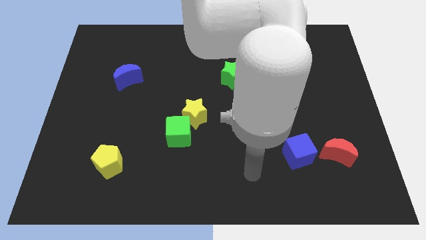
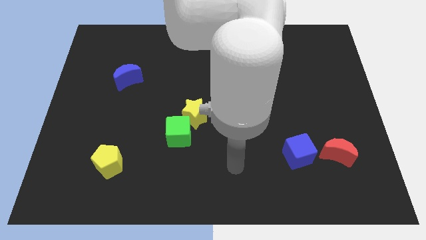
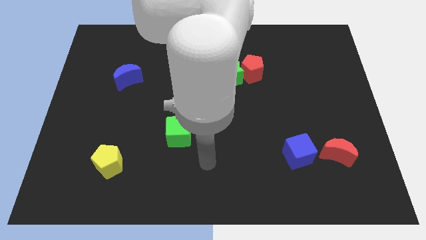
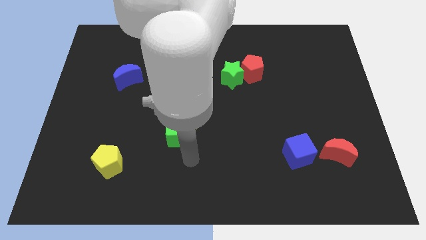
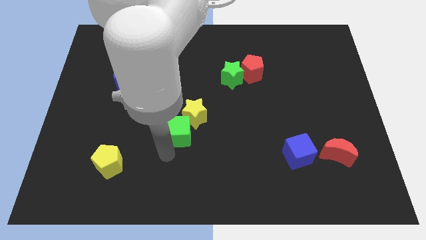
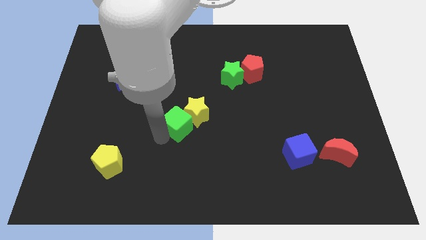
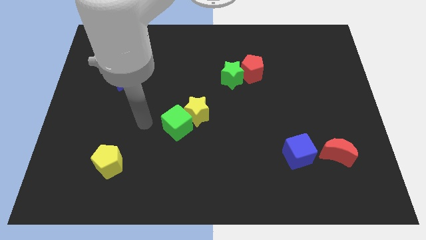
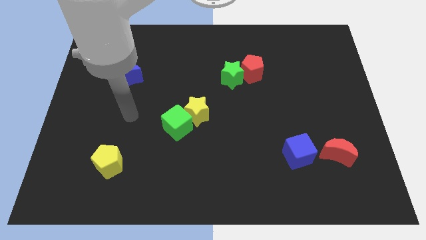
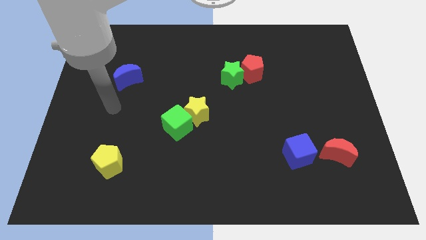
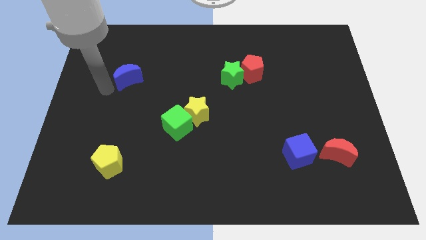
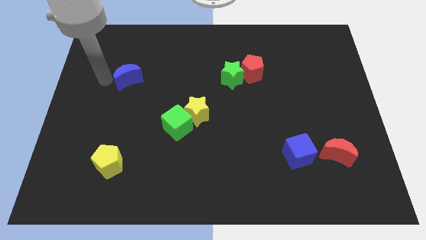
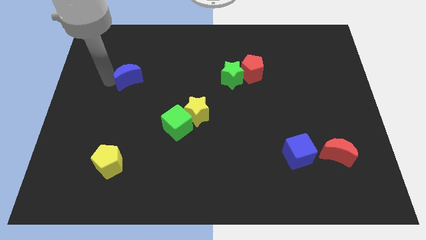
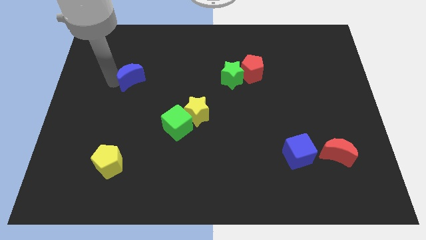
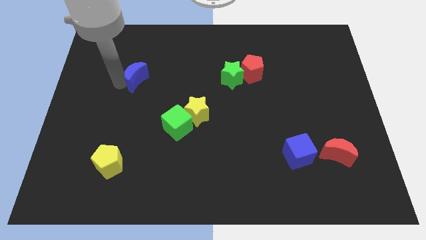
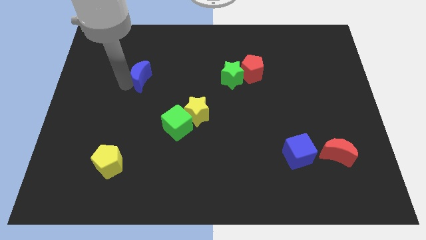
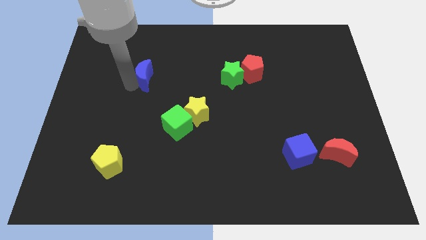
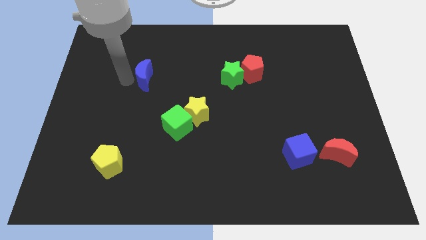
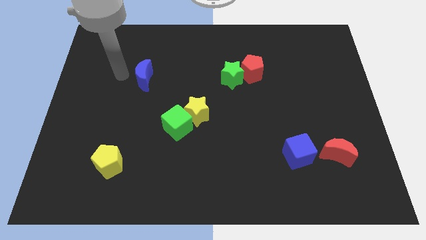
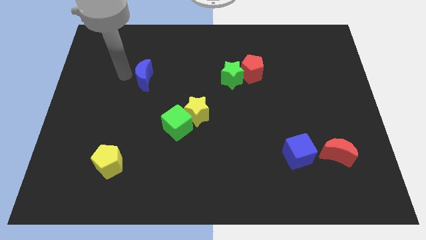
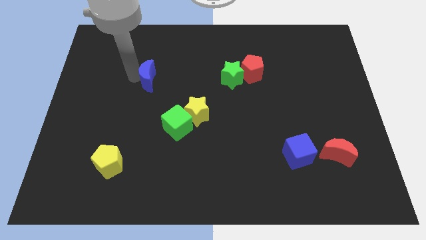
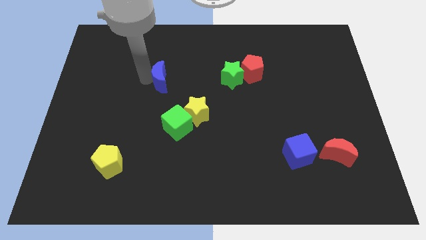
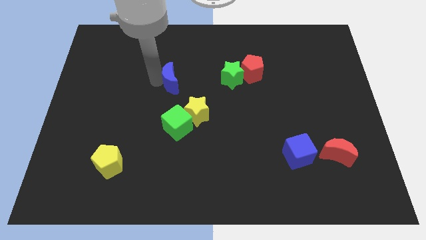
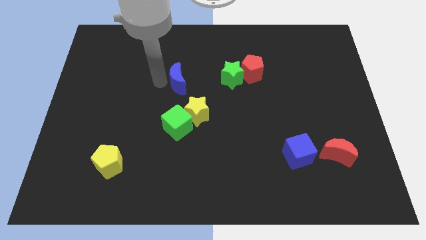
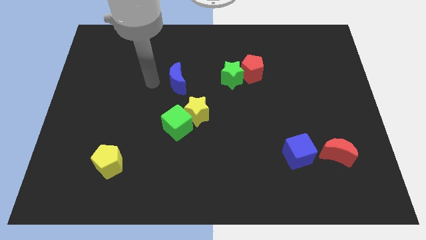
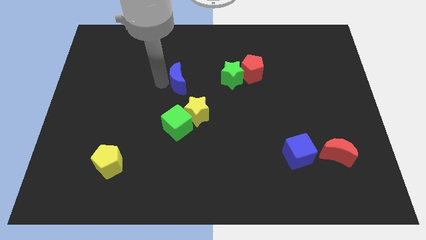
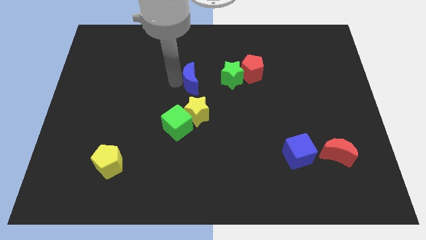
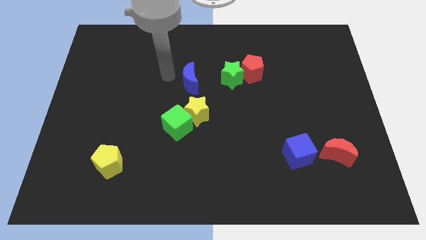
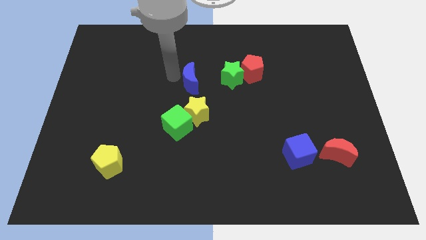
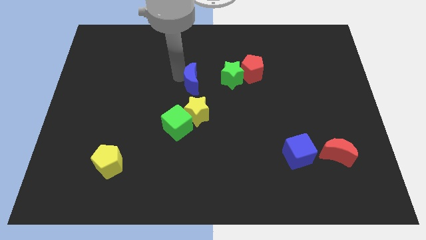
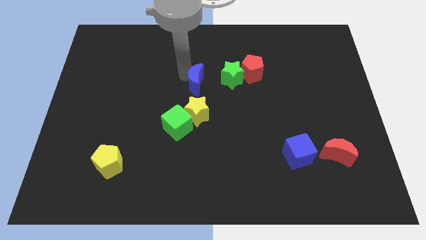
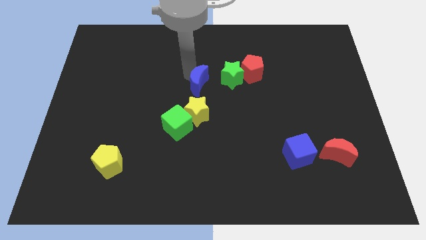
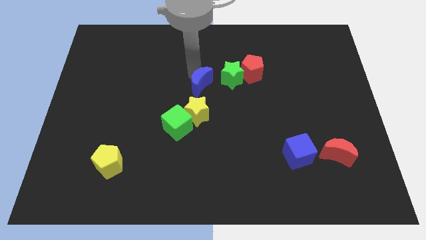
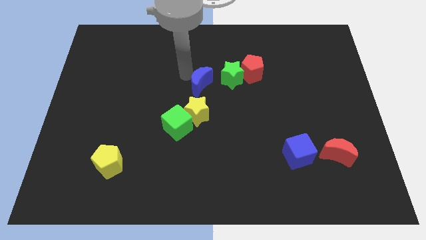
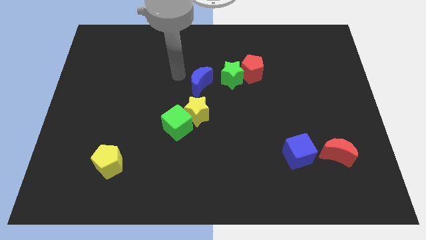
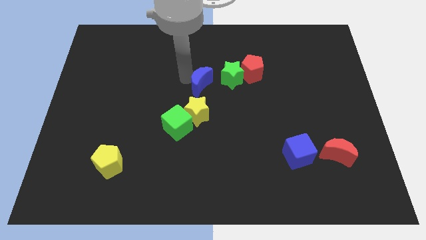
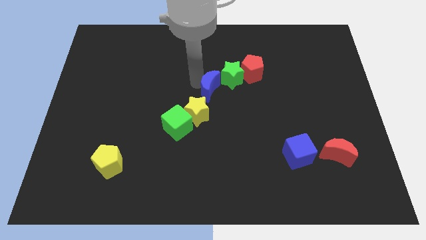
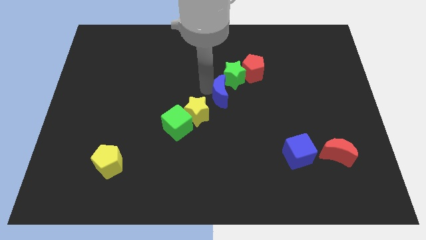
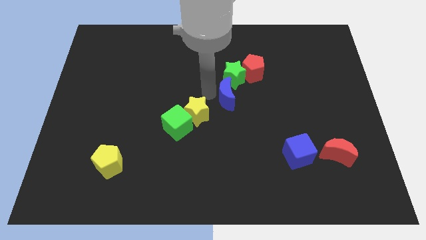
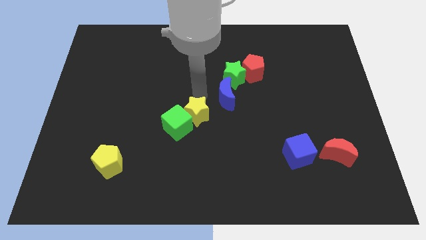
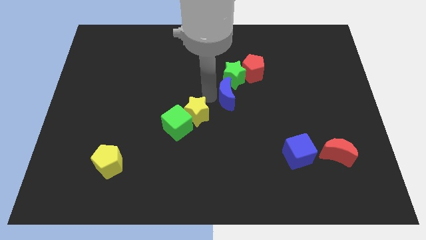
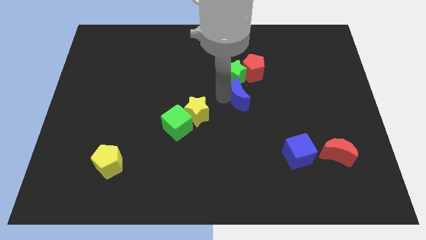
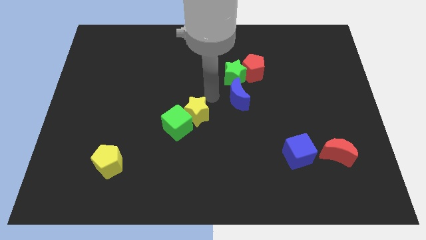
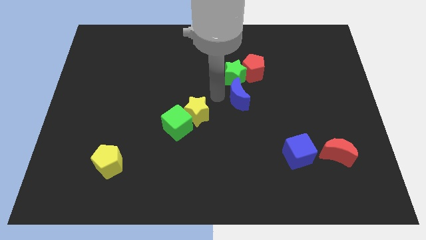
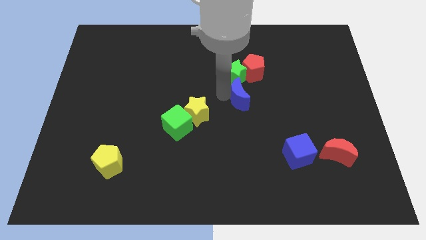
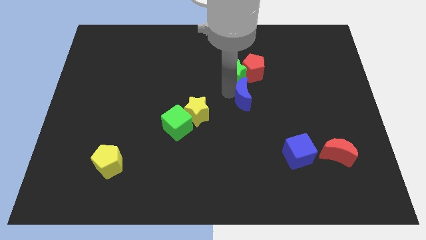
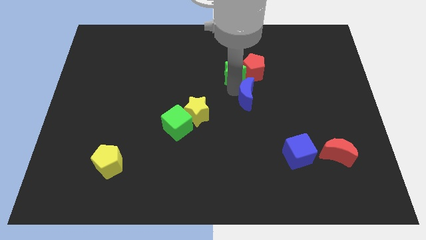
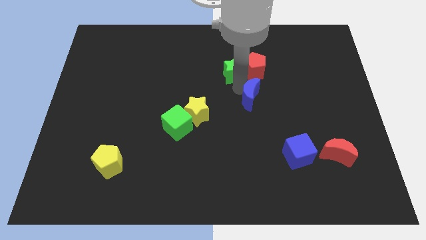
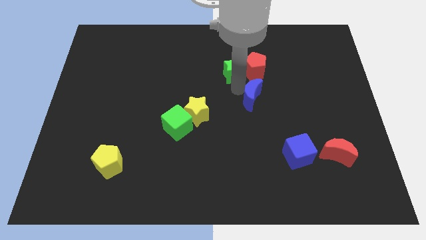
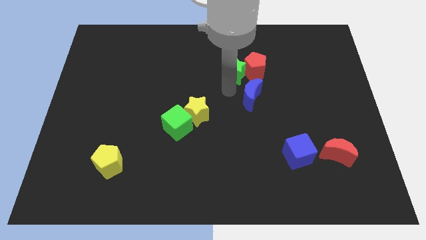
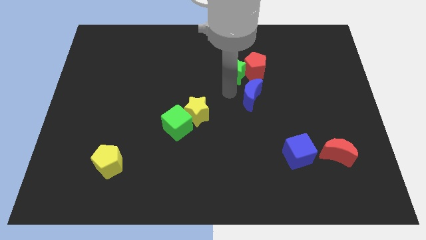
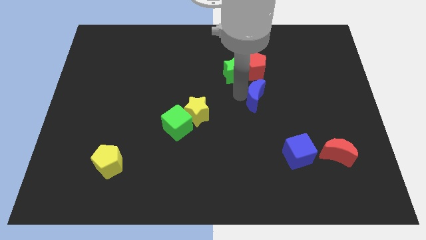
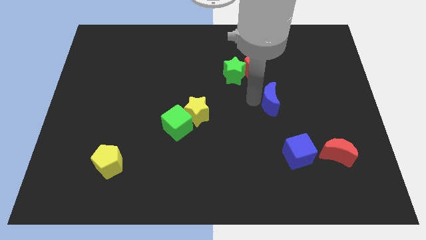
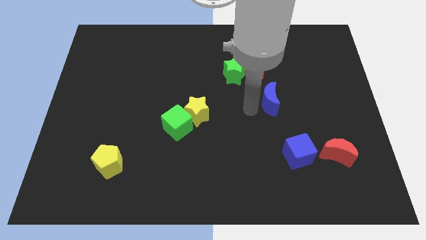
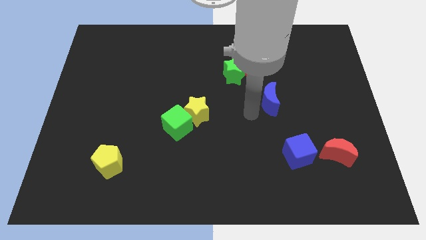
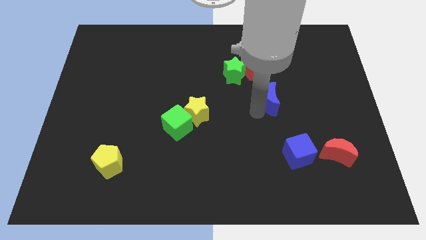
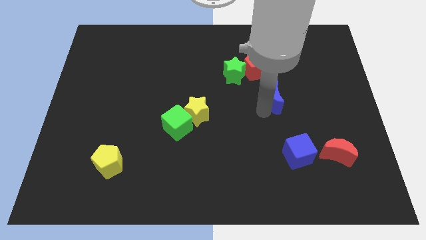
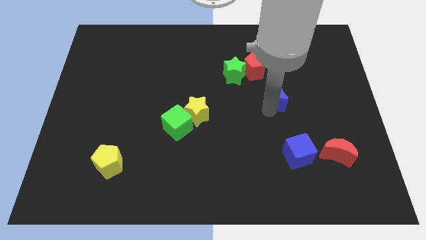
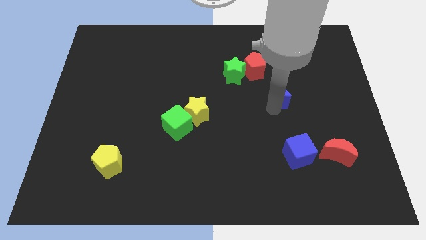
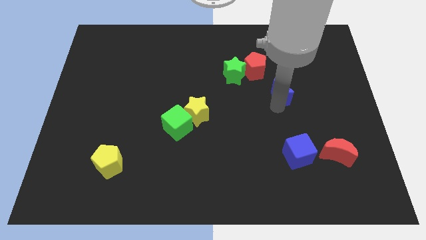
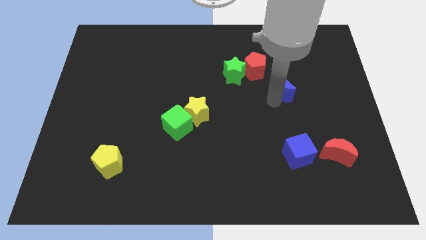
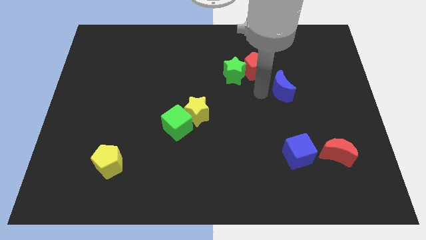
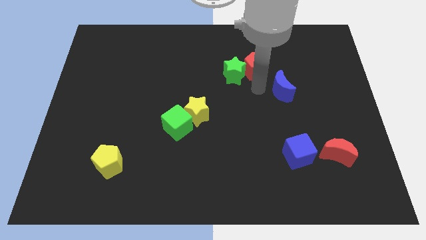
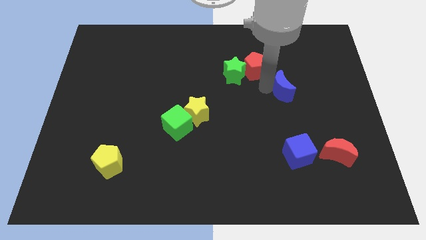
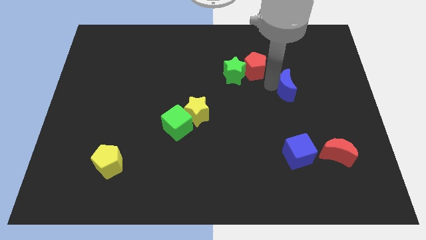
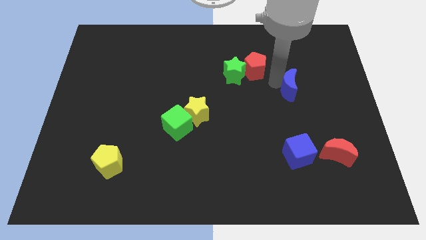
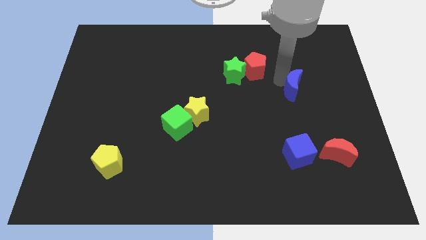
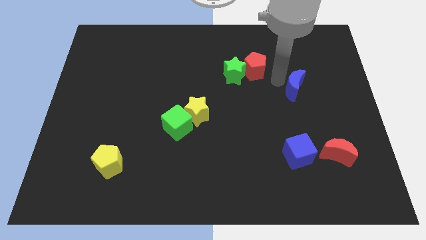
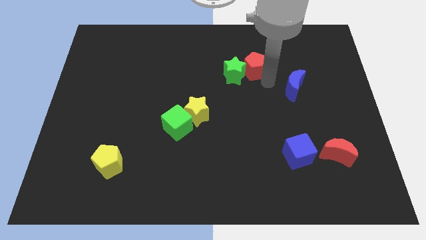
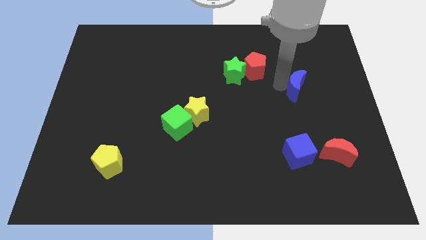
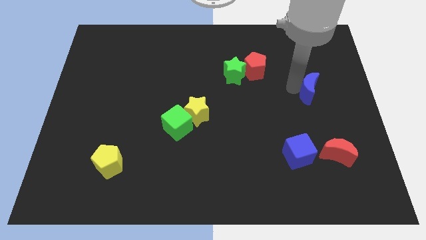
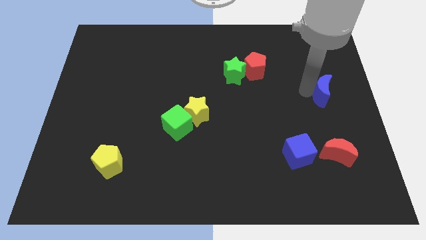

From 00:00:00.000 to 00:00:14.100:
move the blue moon to the right side
